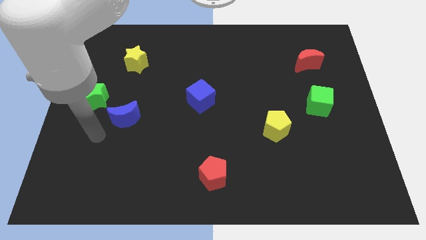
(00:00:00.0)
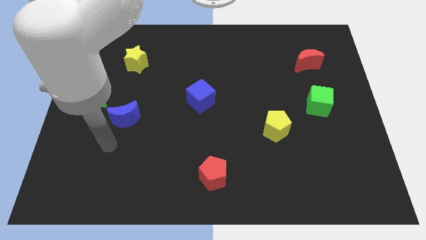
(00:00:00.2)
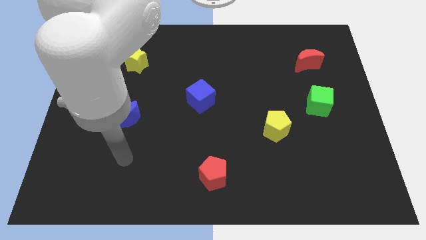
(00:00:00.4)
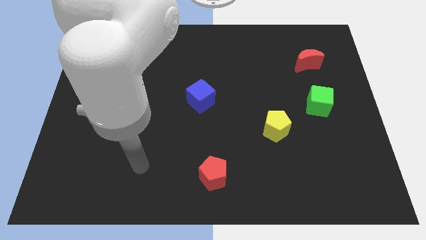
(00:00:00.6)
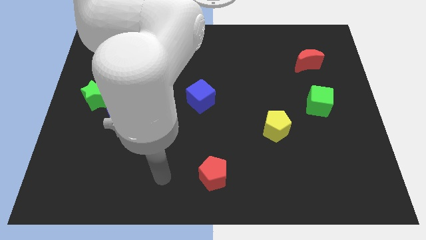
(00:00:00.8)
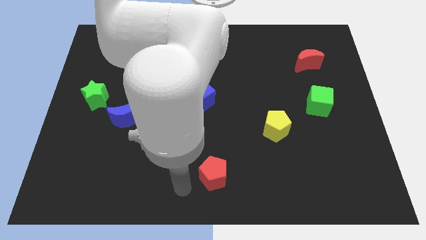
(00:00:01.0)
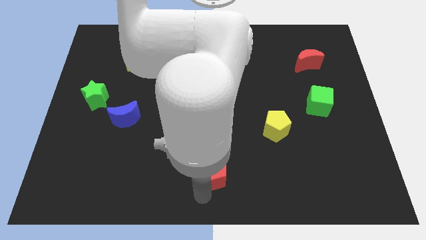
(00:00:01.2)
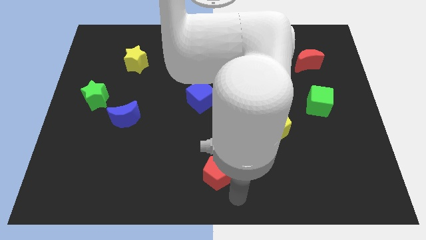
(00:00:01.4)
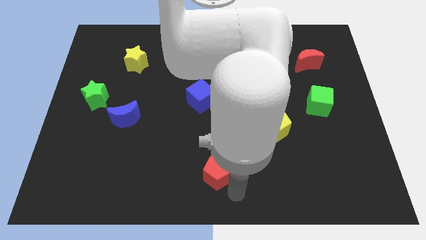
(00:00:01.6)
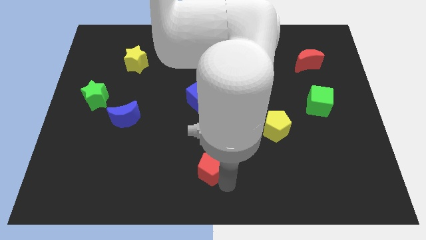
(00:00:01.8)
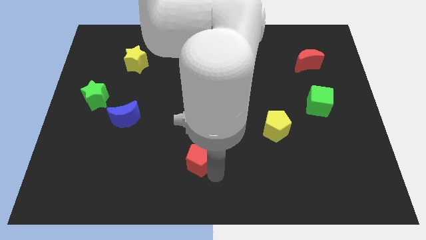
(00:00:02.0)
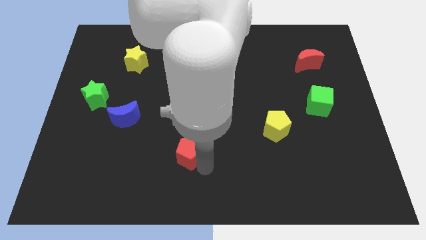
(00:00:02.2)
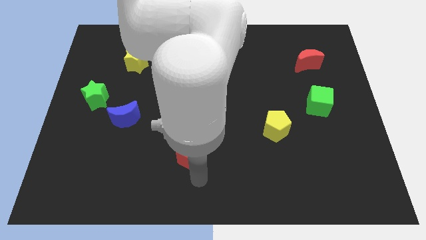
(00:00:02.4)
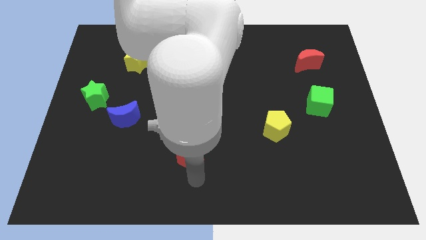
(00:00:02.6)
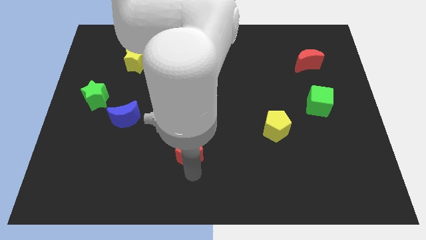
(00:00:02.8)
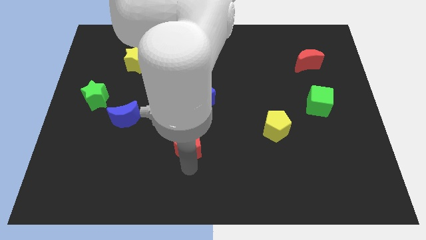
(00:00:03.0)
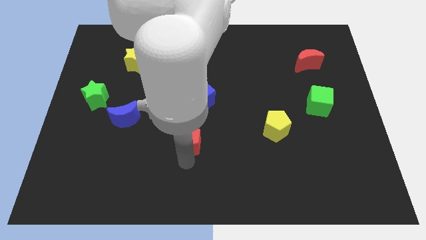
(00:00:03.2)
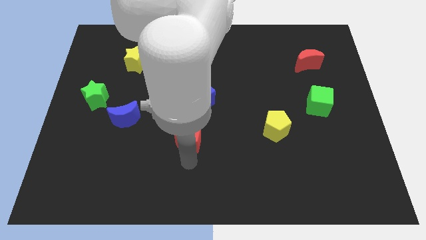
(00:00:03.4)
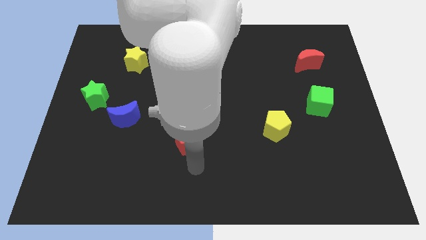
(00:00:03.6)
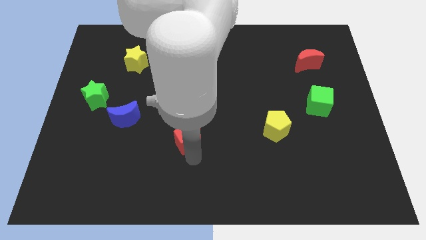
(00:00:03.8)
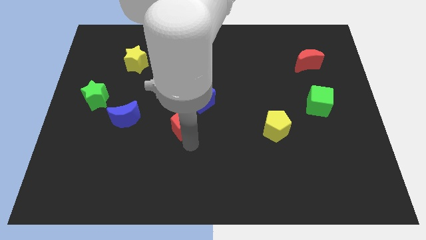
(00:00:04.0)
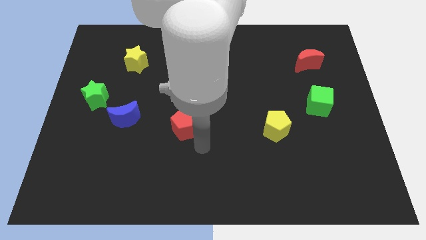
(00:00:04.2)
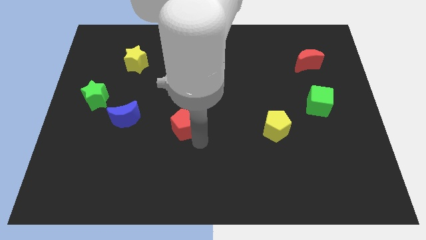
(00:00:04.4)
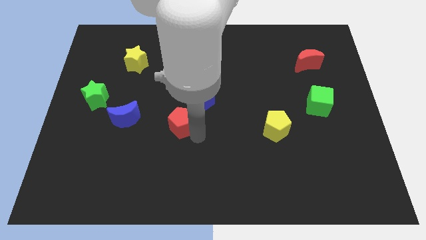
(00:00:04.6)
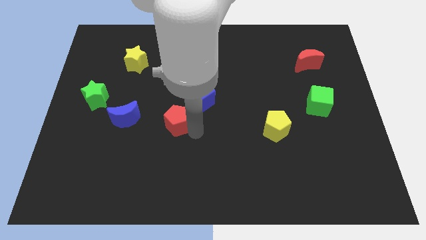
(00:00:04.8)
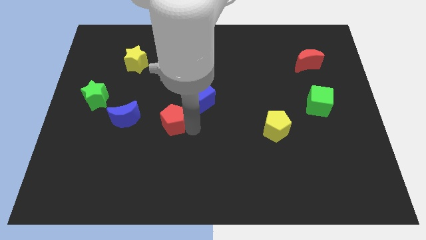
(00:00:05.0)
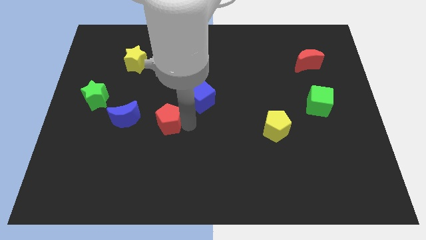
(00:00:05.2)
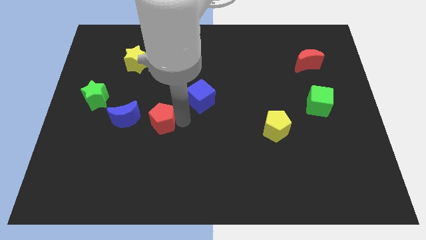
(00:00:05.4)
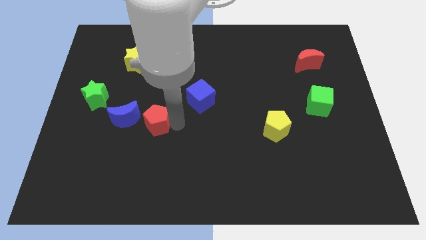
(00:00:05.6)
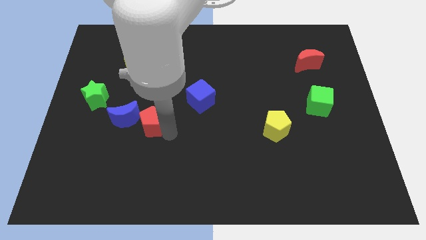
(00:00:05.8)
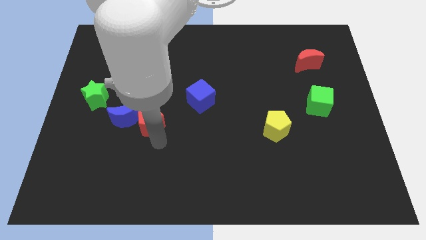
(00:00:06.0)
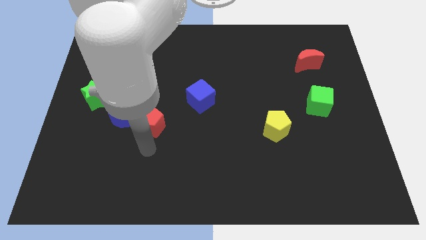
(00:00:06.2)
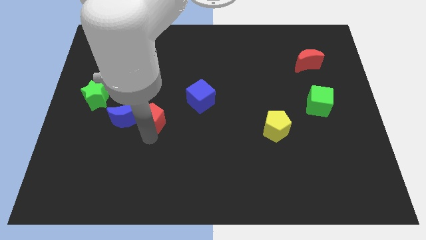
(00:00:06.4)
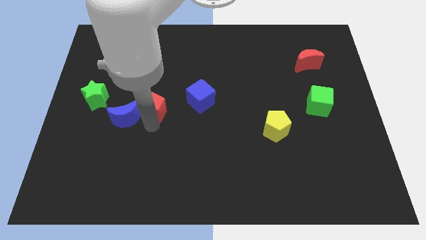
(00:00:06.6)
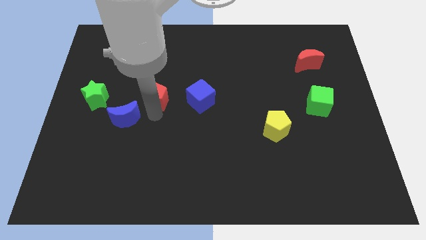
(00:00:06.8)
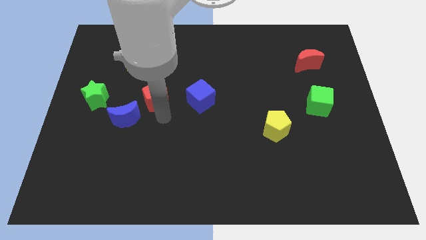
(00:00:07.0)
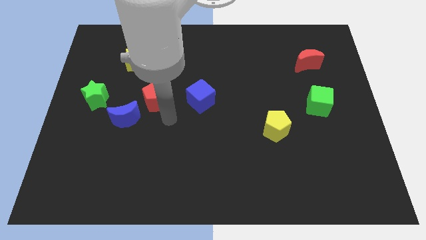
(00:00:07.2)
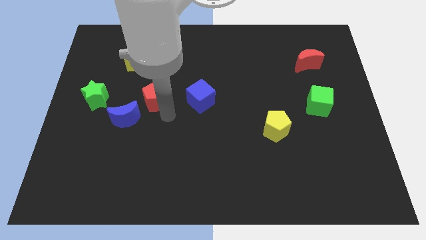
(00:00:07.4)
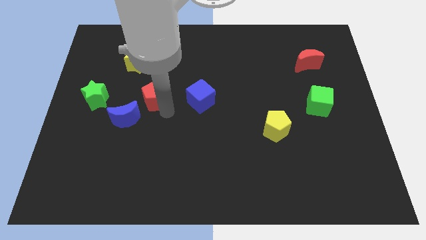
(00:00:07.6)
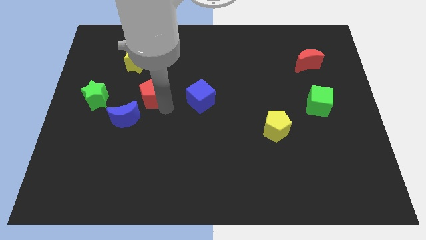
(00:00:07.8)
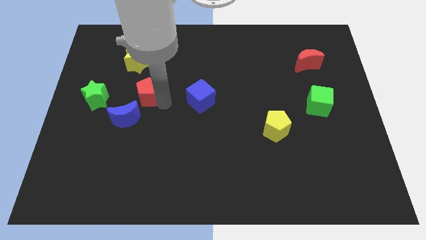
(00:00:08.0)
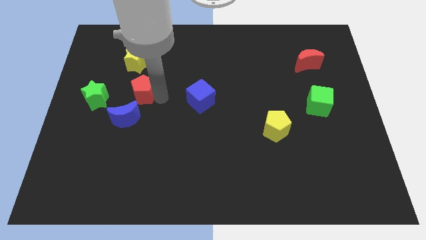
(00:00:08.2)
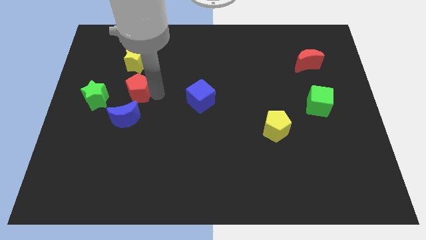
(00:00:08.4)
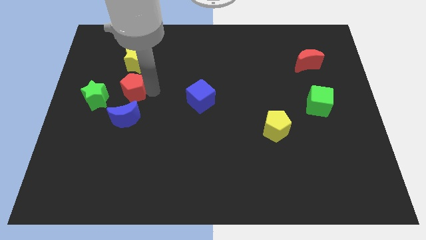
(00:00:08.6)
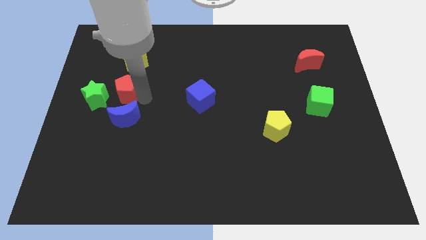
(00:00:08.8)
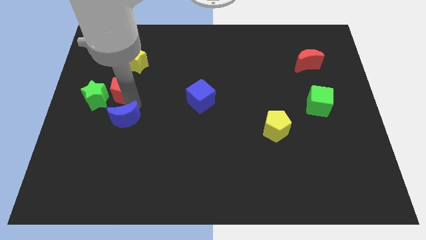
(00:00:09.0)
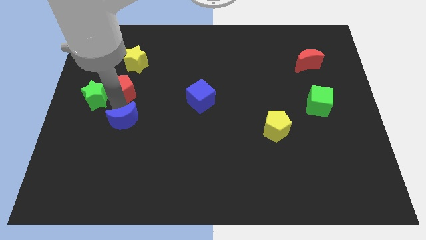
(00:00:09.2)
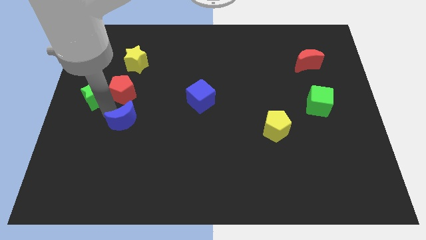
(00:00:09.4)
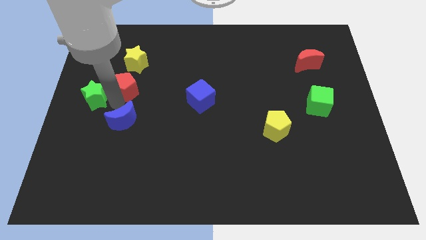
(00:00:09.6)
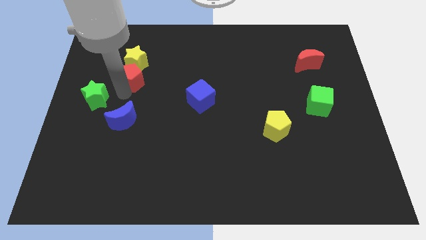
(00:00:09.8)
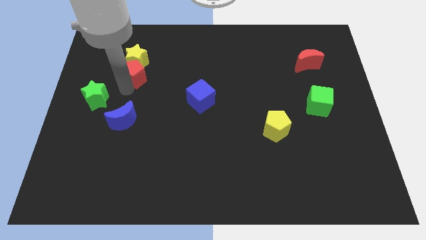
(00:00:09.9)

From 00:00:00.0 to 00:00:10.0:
move the red pentagon close to the yellow star

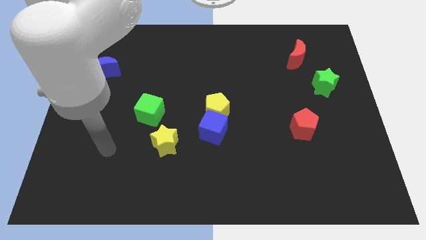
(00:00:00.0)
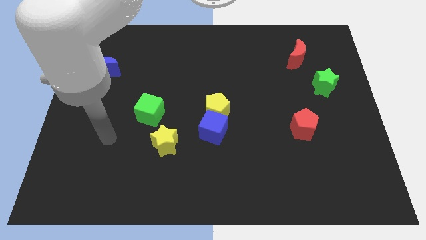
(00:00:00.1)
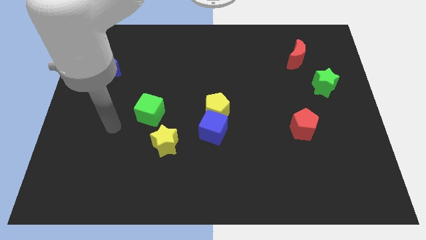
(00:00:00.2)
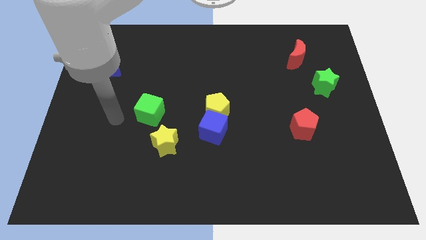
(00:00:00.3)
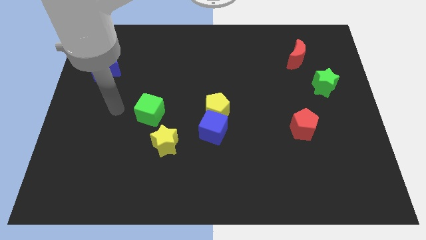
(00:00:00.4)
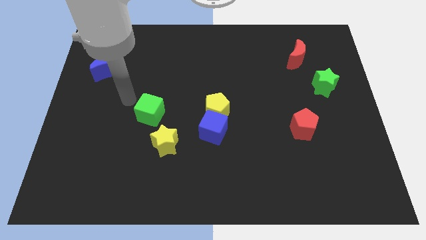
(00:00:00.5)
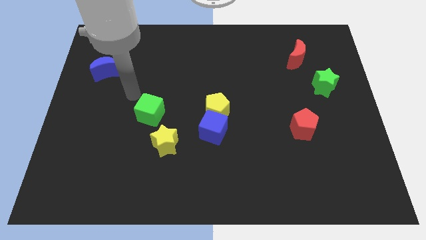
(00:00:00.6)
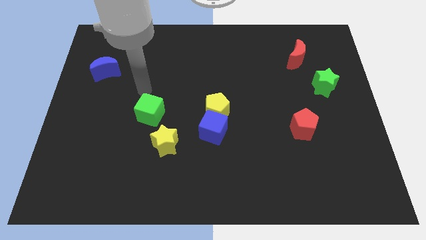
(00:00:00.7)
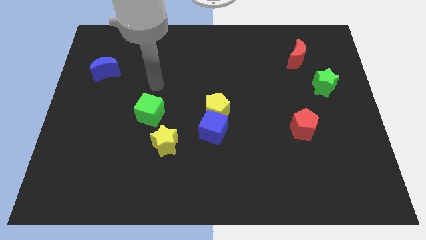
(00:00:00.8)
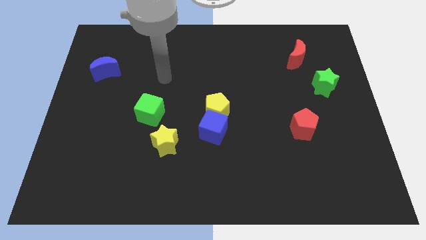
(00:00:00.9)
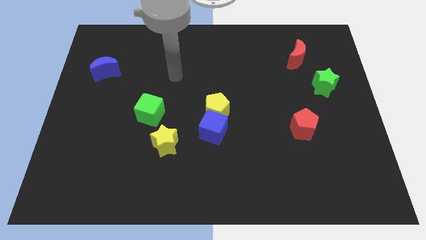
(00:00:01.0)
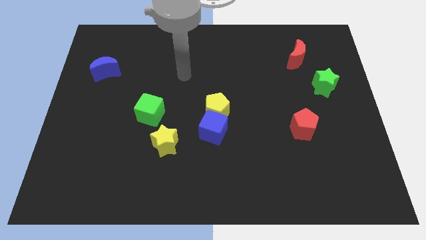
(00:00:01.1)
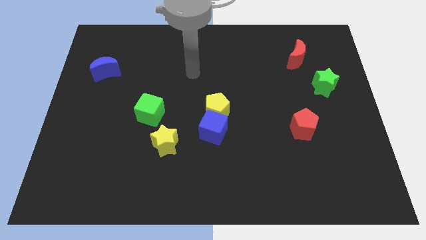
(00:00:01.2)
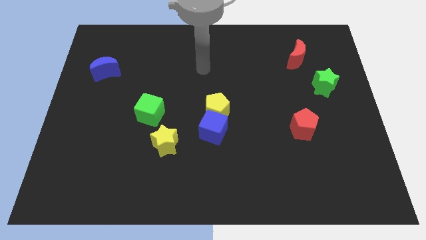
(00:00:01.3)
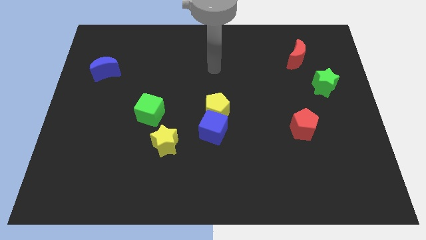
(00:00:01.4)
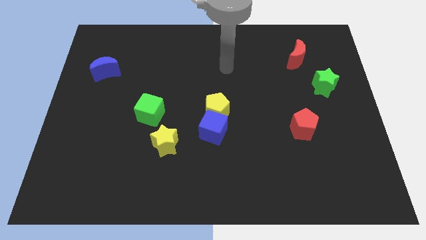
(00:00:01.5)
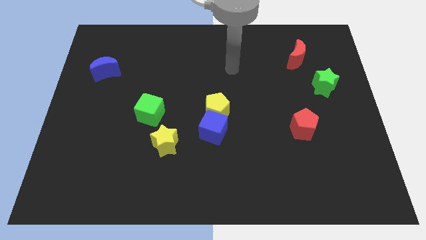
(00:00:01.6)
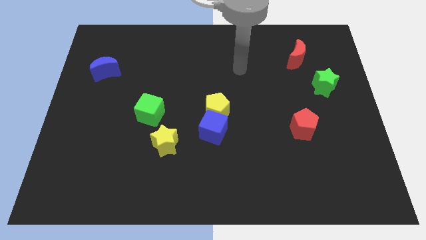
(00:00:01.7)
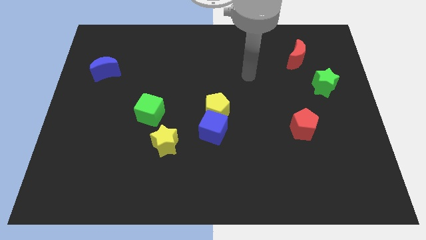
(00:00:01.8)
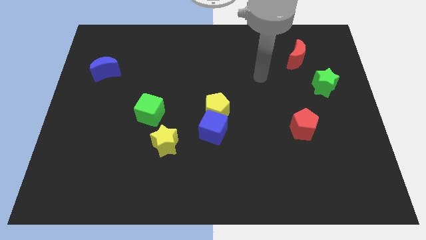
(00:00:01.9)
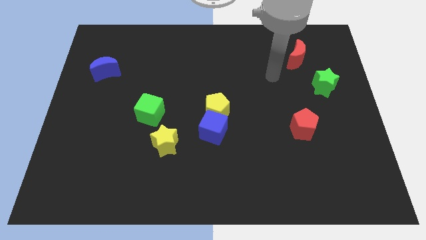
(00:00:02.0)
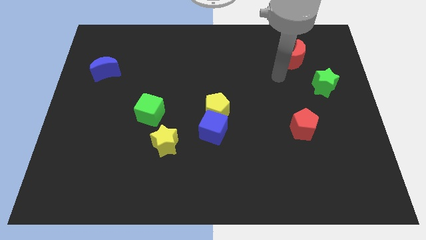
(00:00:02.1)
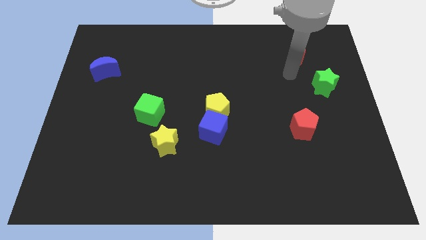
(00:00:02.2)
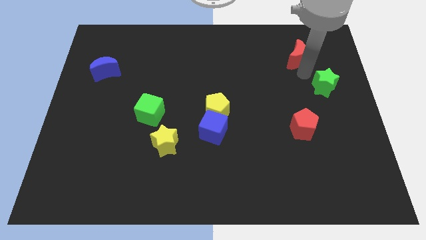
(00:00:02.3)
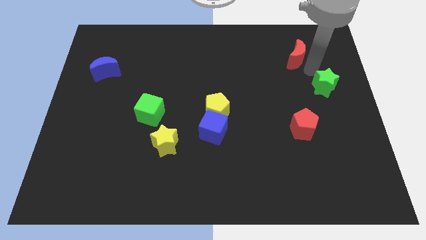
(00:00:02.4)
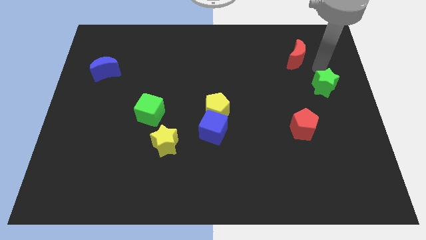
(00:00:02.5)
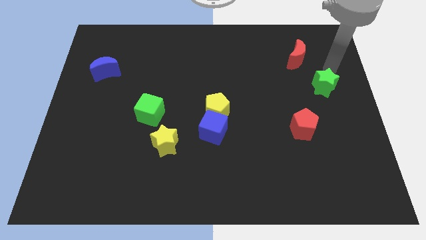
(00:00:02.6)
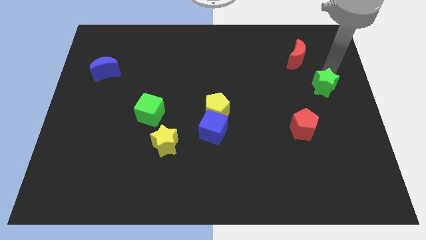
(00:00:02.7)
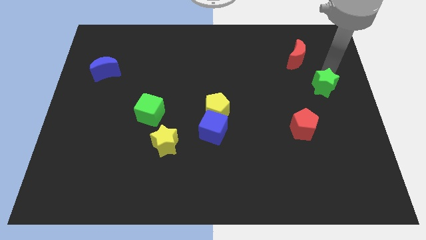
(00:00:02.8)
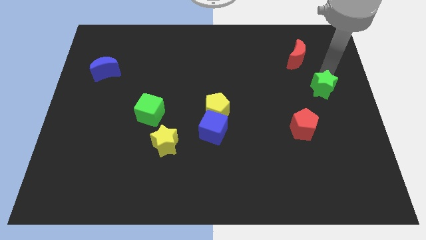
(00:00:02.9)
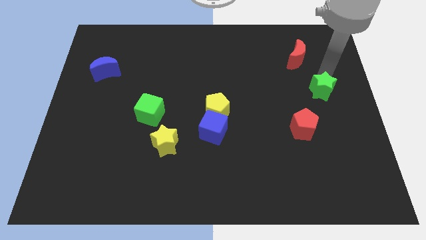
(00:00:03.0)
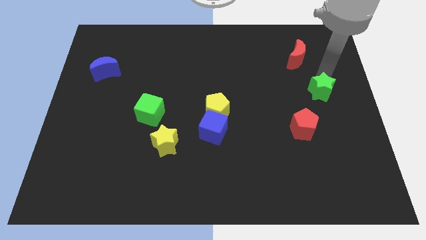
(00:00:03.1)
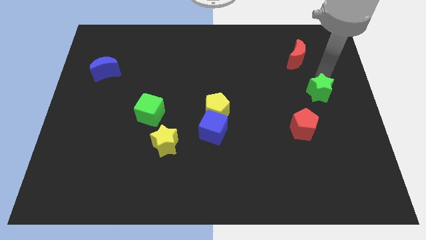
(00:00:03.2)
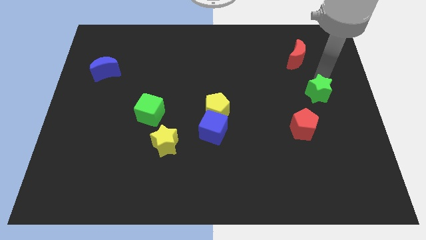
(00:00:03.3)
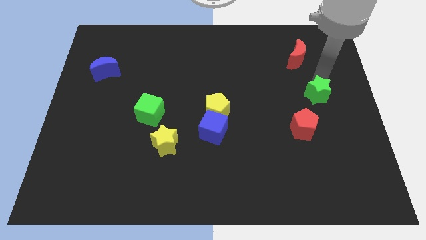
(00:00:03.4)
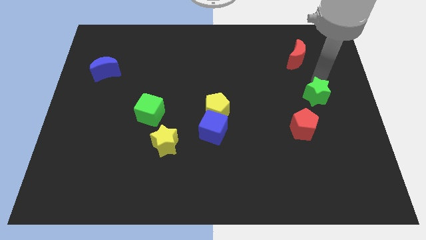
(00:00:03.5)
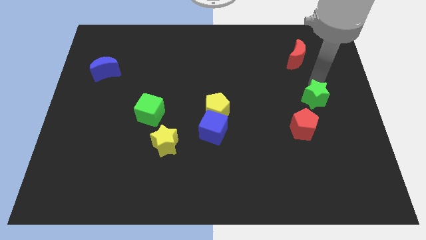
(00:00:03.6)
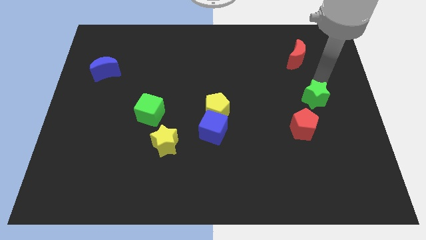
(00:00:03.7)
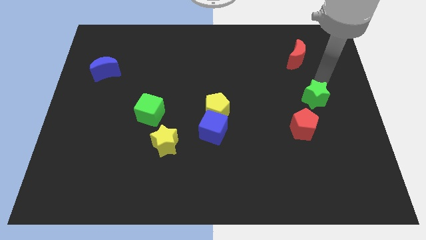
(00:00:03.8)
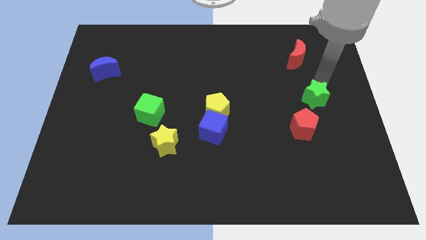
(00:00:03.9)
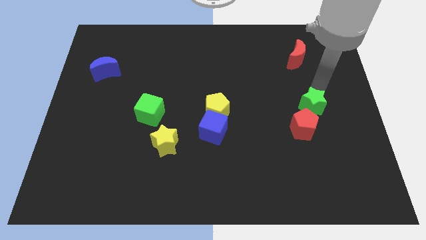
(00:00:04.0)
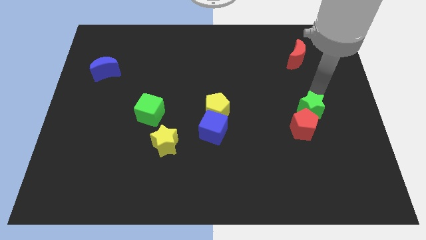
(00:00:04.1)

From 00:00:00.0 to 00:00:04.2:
push the green star next to the red pentagon
